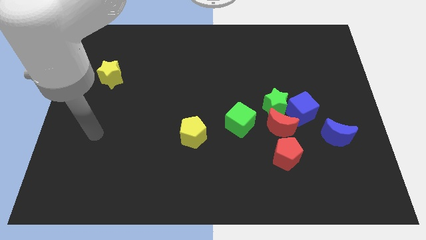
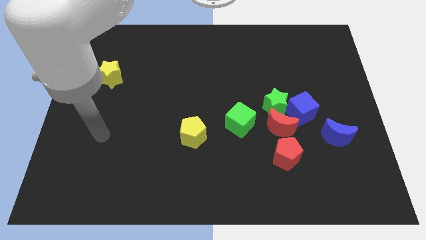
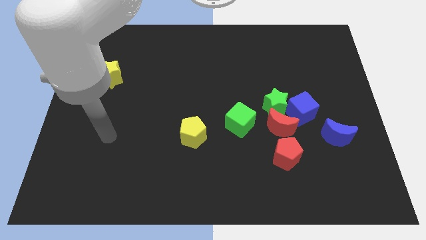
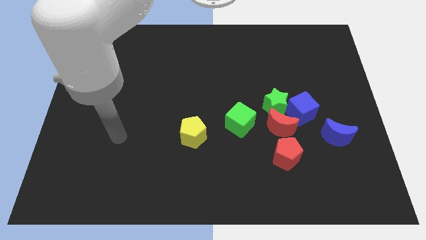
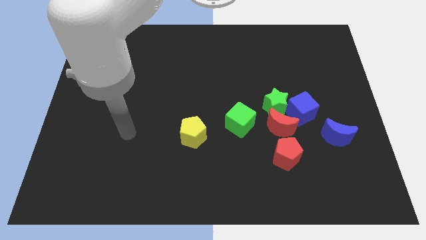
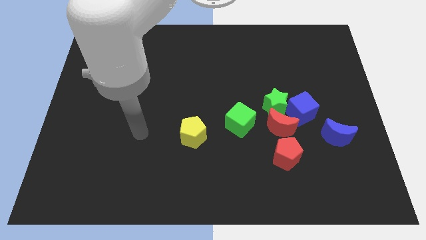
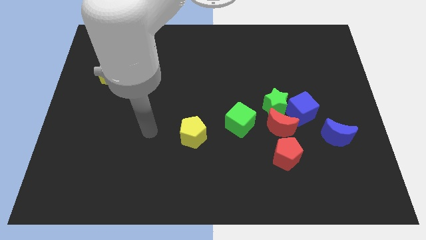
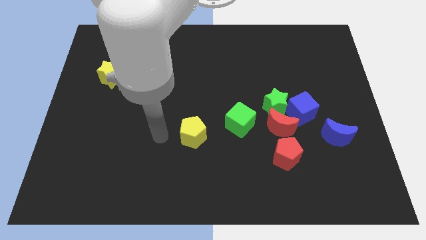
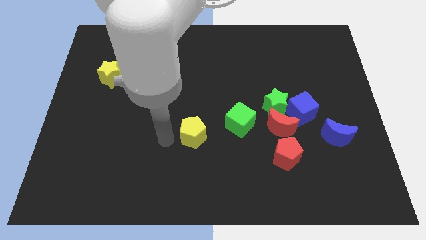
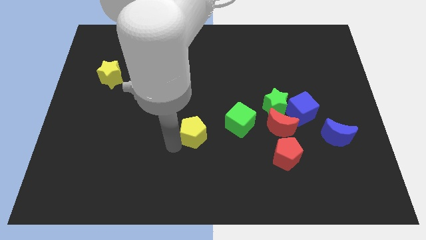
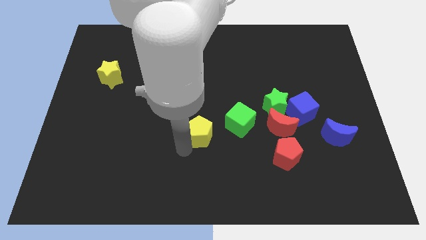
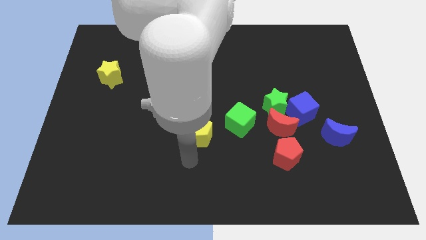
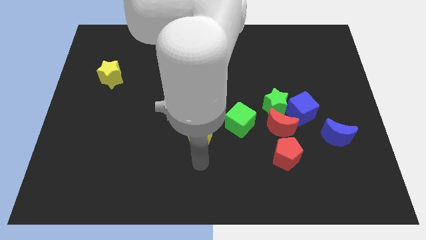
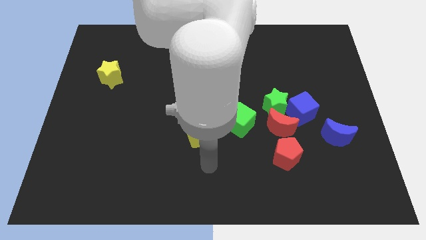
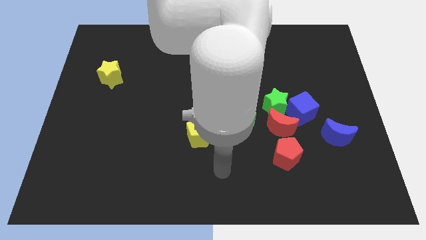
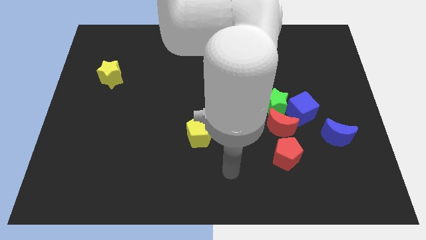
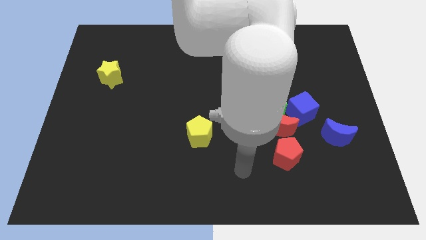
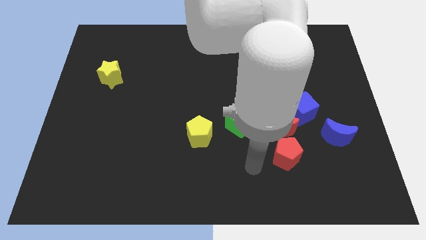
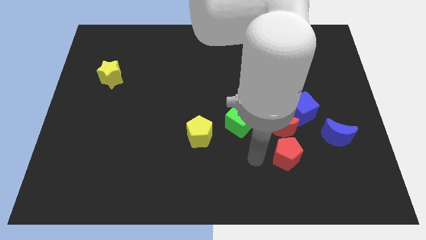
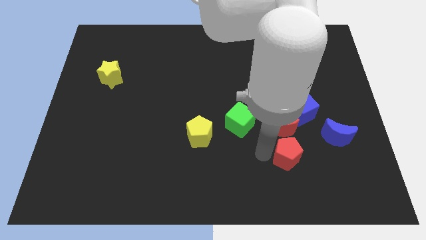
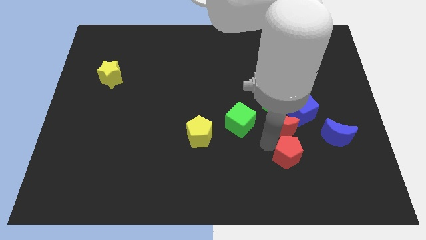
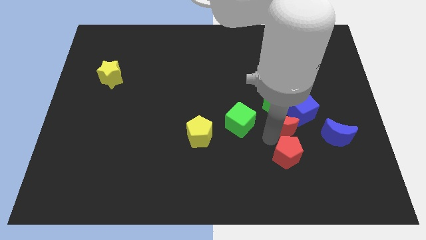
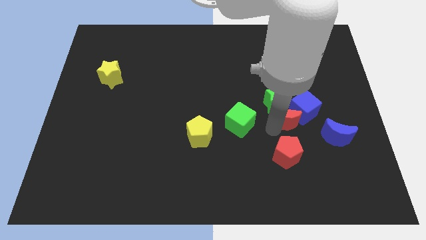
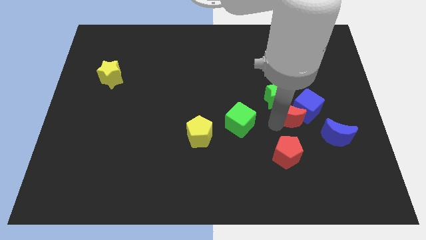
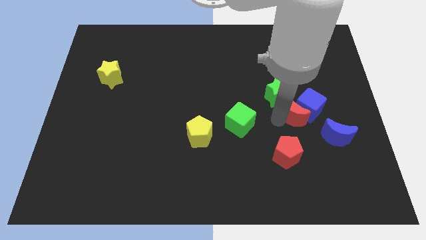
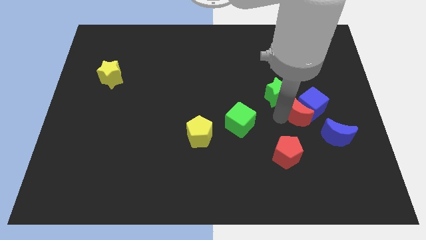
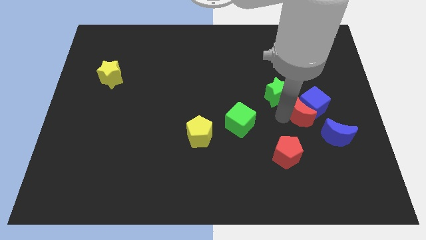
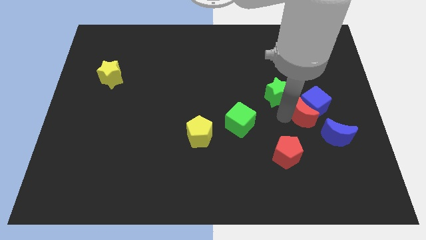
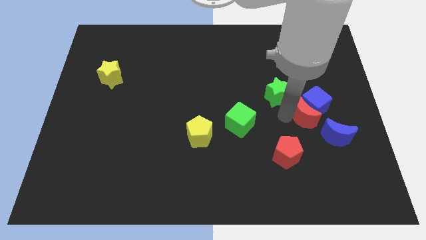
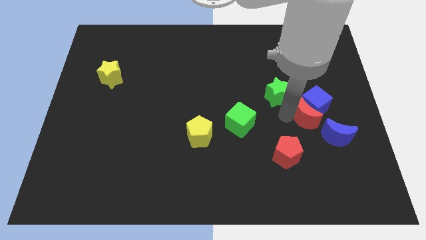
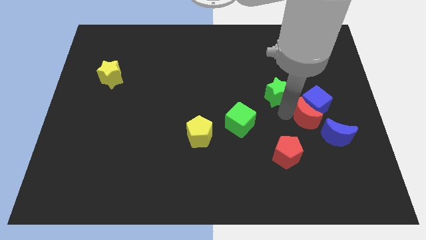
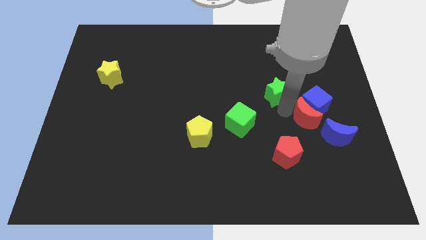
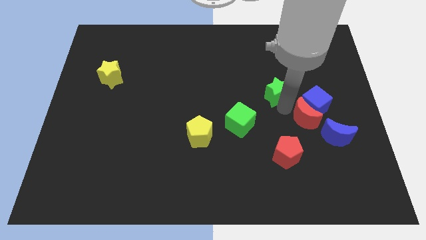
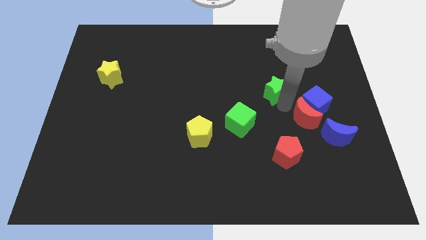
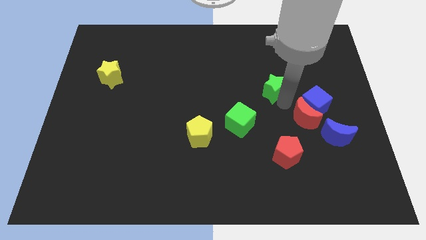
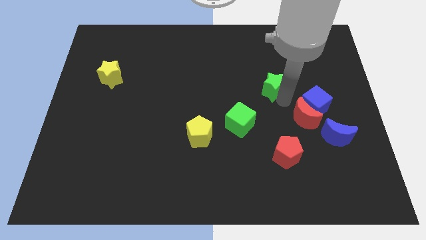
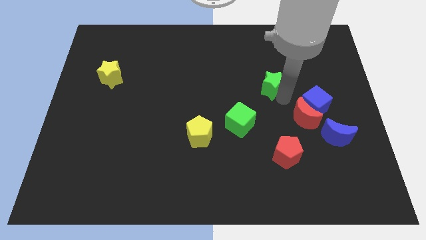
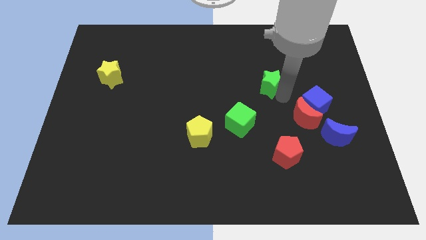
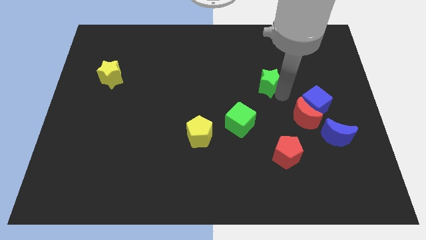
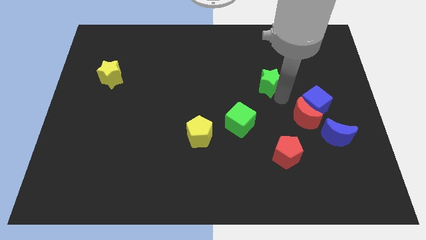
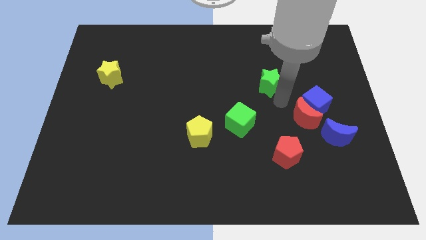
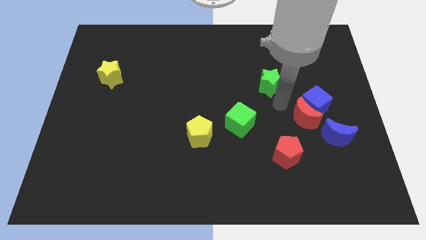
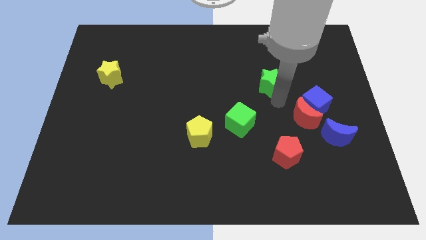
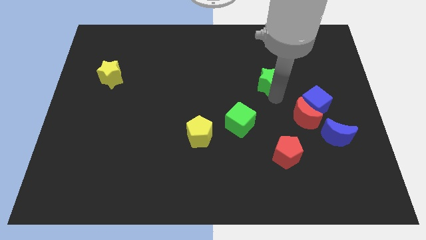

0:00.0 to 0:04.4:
separate the green star from the red moon, blue cube, and green cube

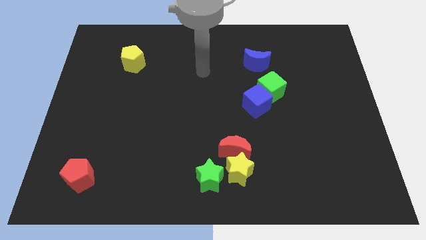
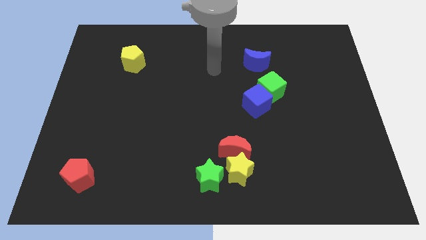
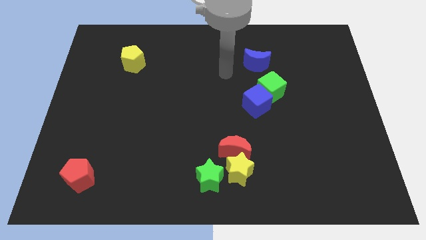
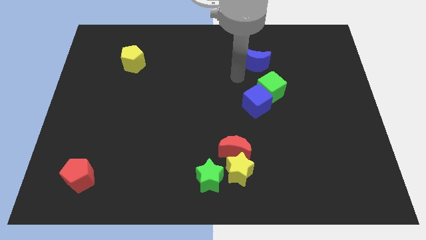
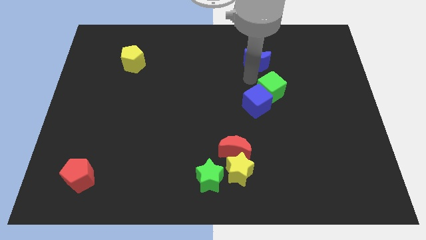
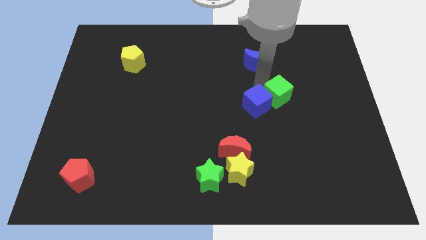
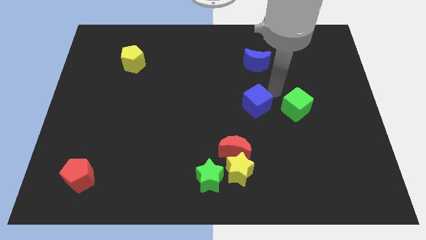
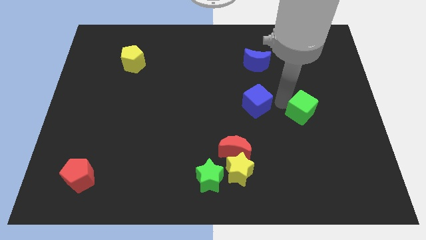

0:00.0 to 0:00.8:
move the blue cube away from the green cube

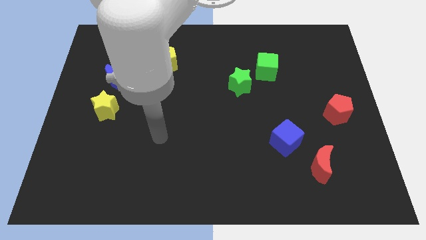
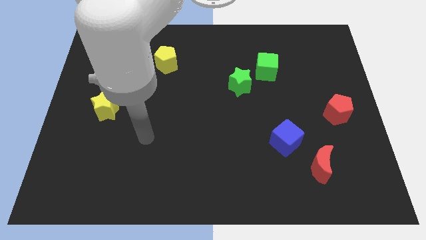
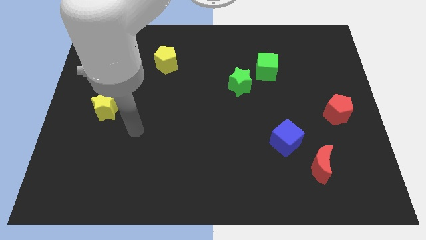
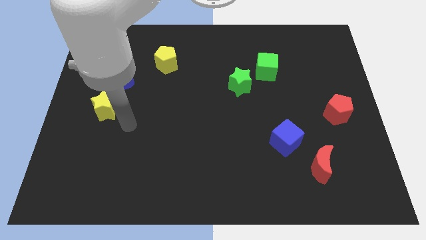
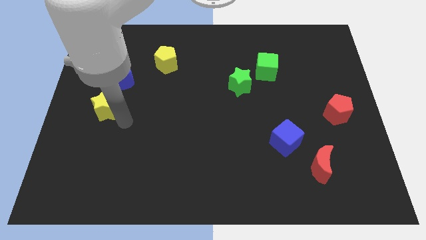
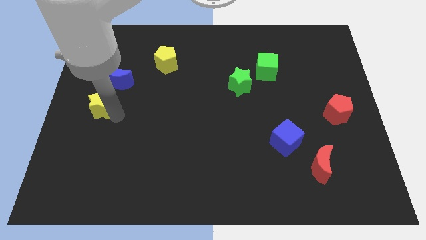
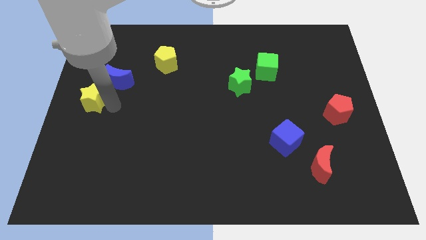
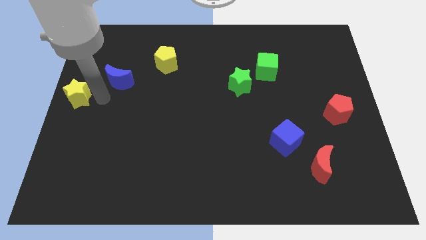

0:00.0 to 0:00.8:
separate the blue moon from the yellow star

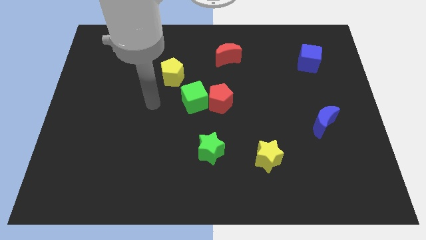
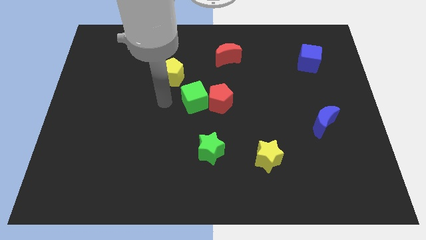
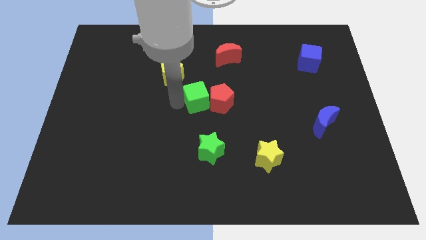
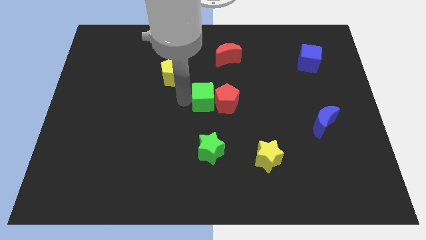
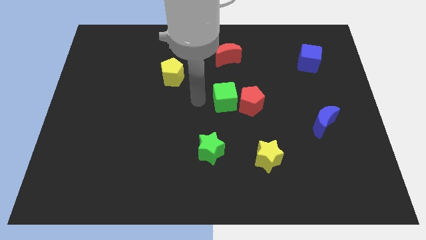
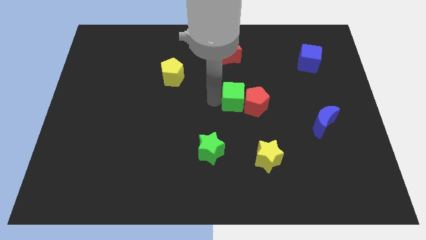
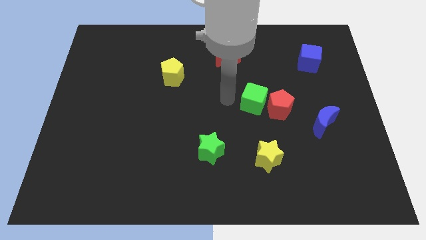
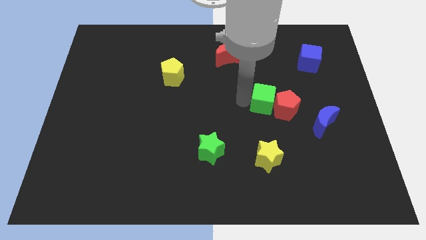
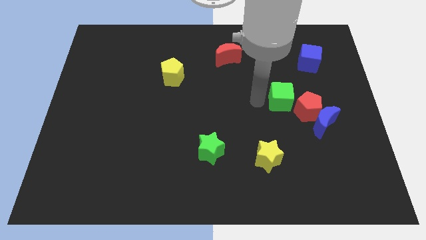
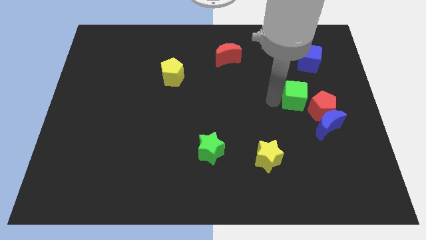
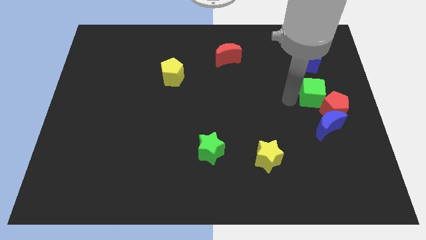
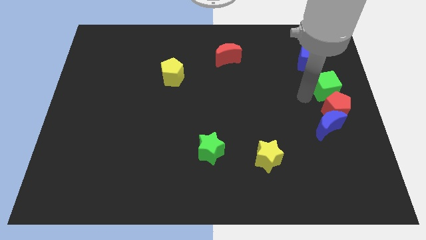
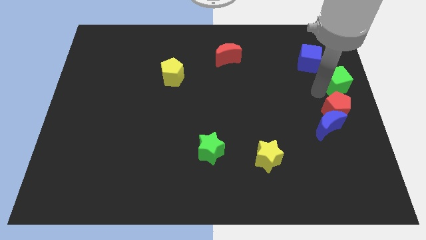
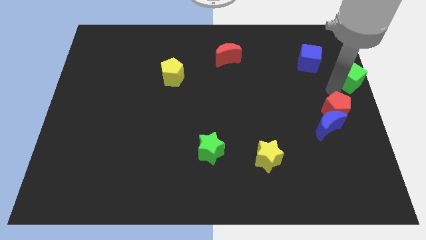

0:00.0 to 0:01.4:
pull the red pentagon apart from the green cube

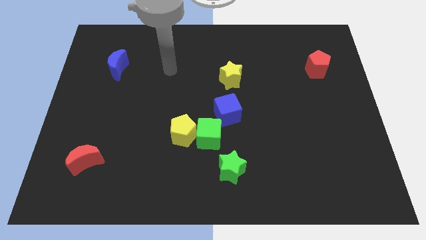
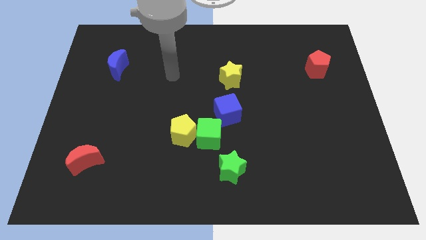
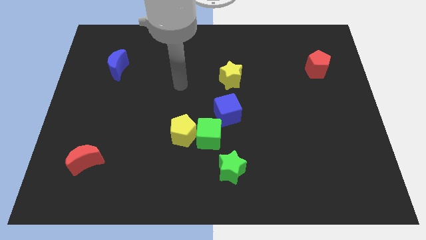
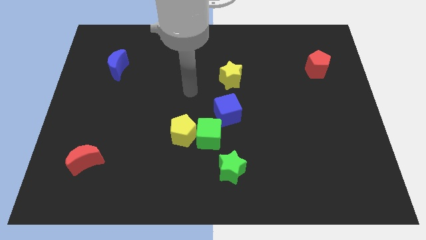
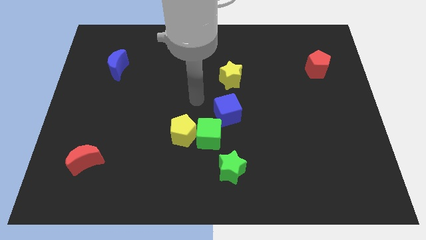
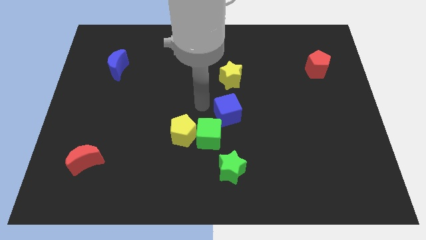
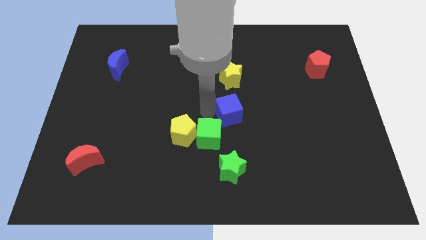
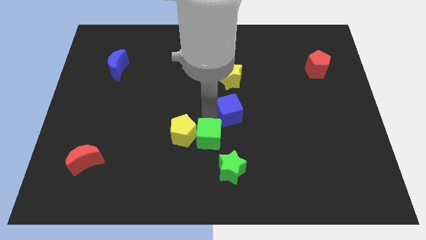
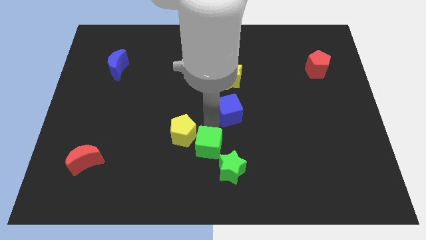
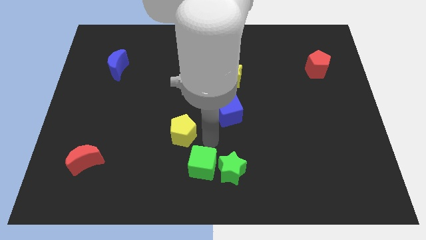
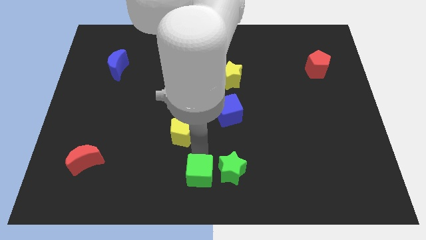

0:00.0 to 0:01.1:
separate the yellow pentagon from the green cube

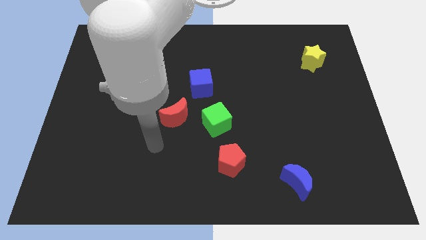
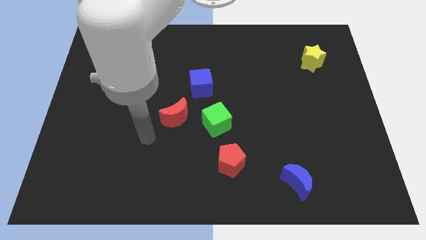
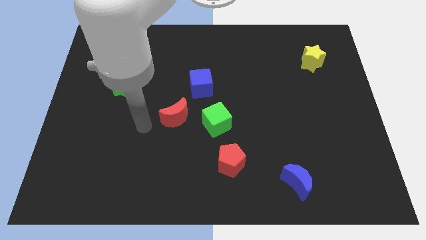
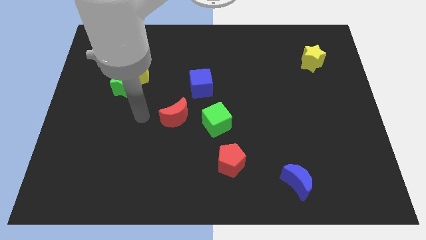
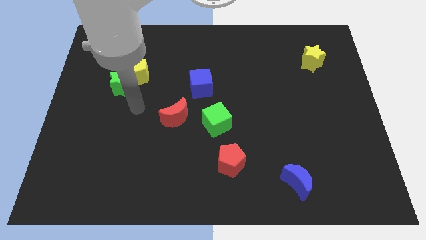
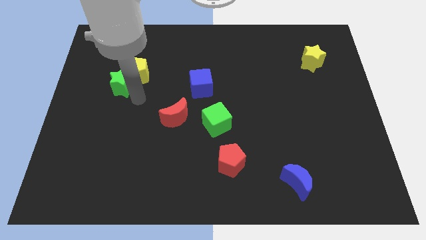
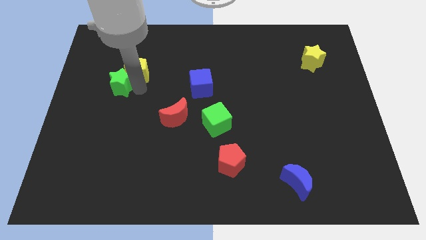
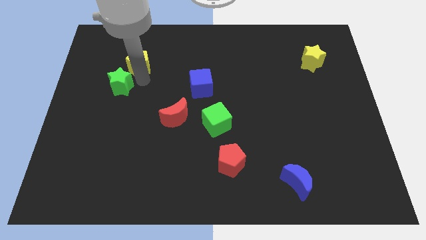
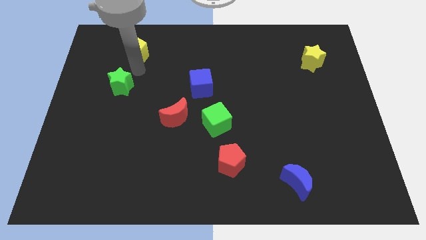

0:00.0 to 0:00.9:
separate the green star from the yellow pentagon
